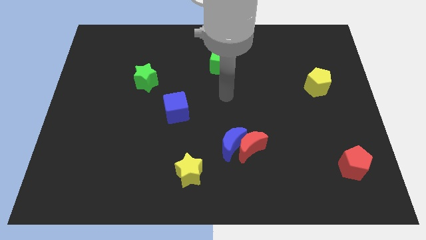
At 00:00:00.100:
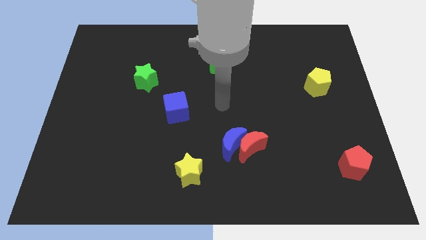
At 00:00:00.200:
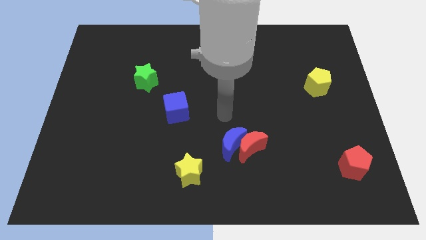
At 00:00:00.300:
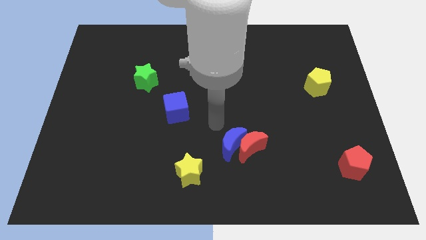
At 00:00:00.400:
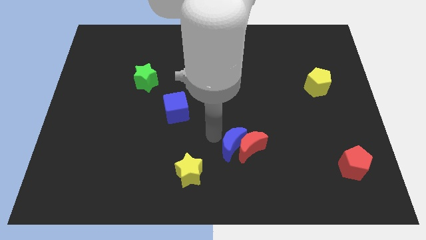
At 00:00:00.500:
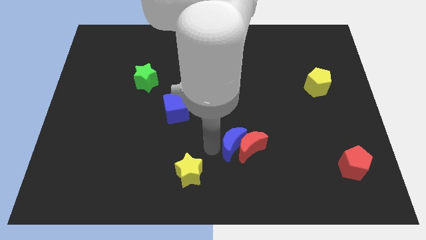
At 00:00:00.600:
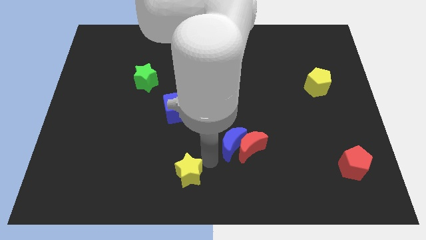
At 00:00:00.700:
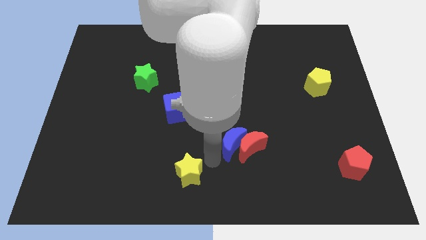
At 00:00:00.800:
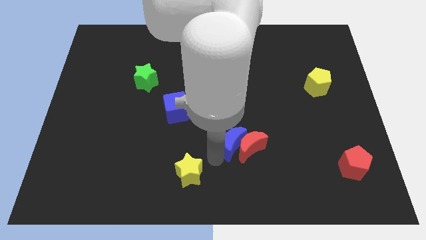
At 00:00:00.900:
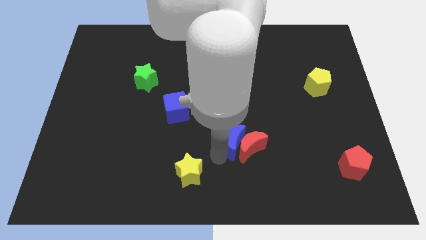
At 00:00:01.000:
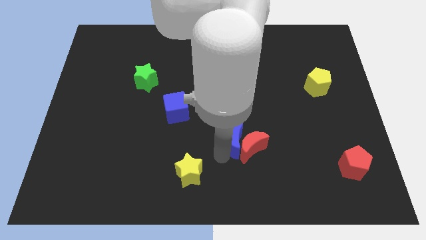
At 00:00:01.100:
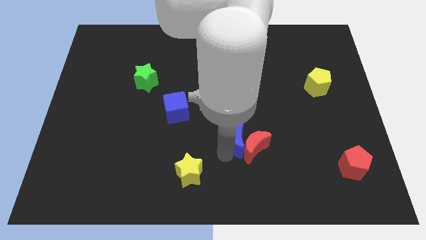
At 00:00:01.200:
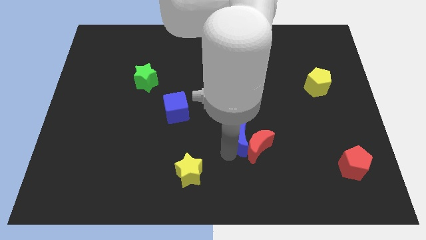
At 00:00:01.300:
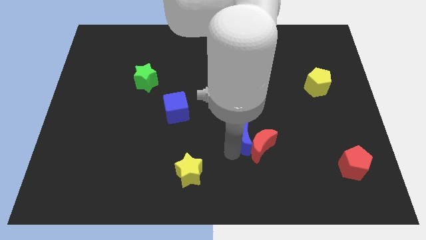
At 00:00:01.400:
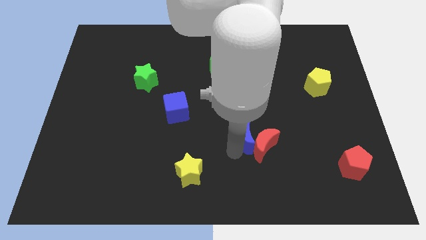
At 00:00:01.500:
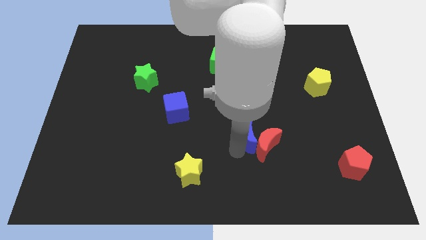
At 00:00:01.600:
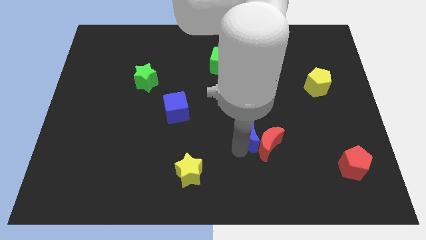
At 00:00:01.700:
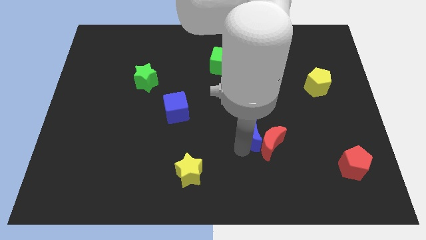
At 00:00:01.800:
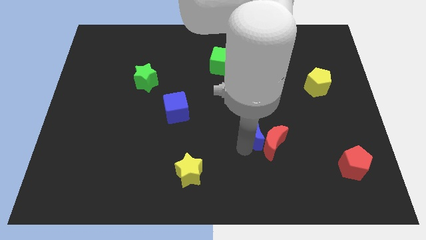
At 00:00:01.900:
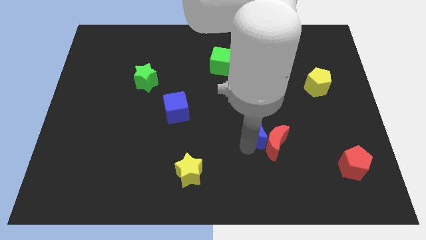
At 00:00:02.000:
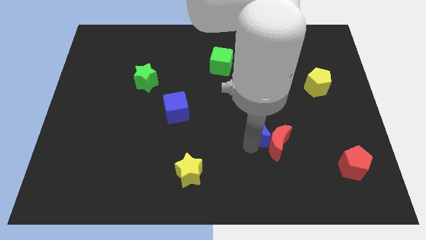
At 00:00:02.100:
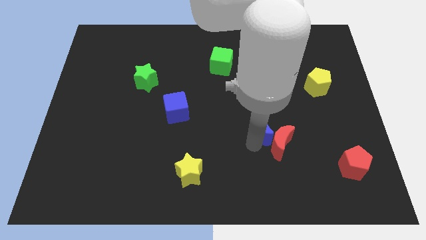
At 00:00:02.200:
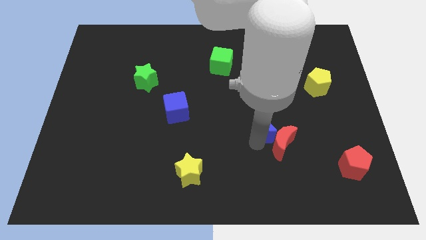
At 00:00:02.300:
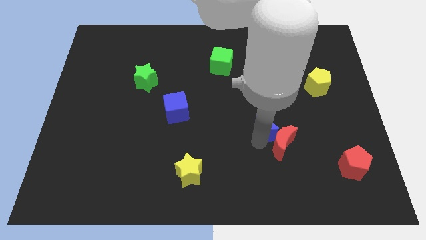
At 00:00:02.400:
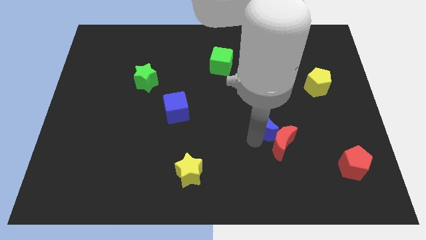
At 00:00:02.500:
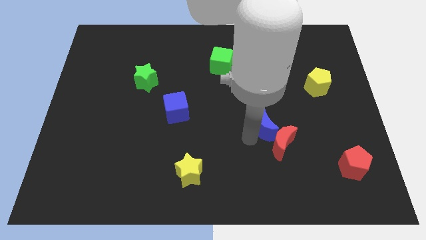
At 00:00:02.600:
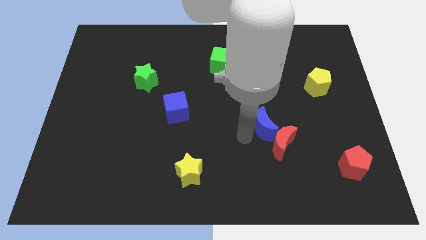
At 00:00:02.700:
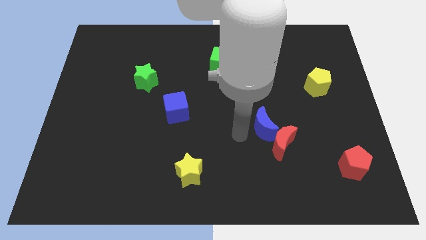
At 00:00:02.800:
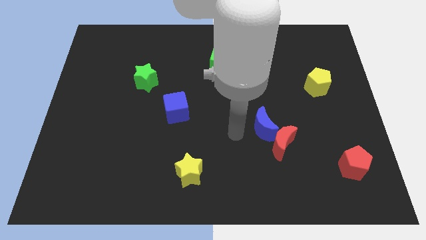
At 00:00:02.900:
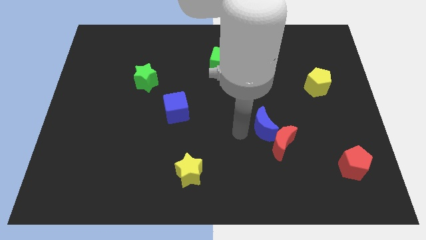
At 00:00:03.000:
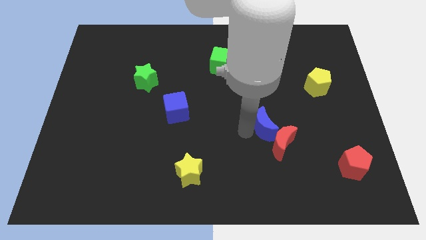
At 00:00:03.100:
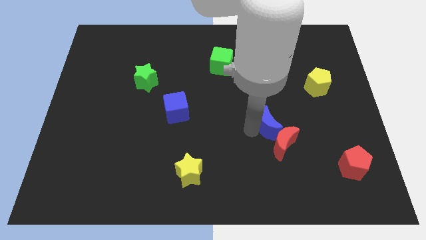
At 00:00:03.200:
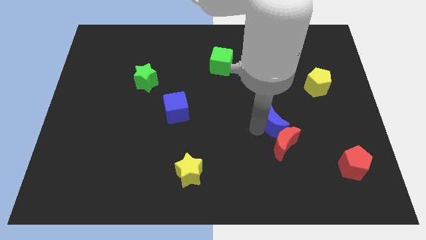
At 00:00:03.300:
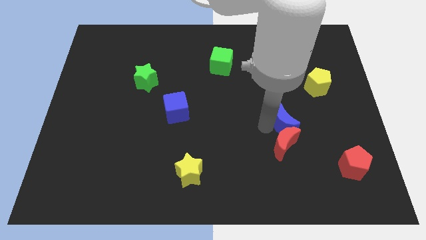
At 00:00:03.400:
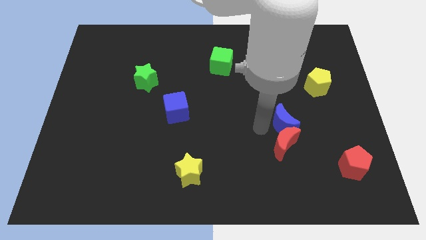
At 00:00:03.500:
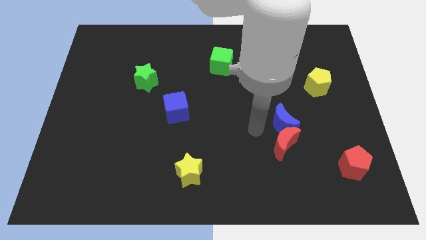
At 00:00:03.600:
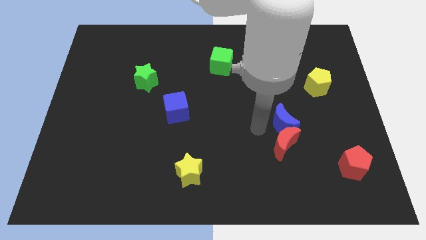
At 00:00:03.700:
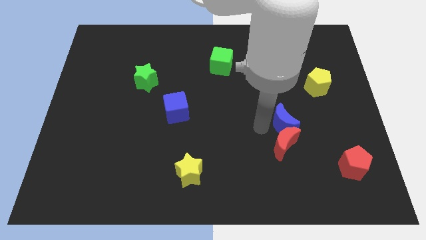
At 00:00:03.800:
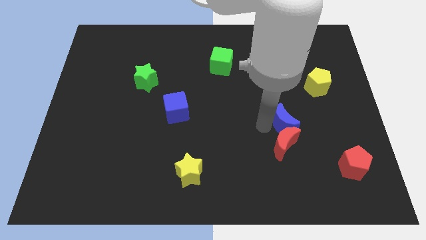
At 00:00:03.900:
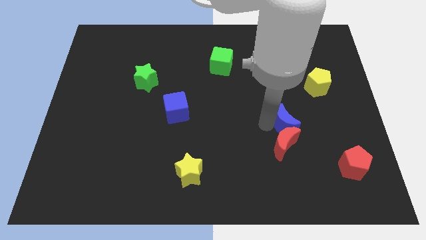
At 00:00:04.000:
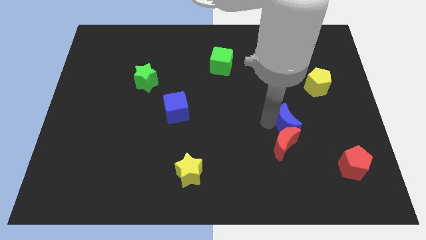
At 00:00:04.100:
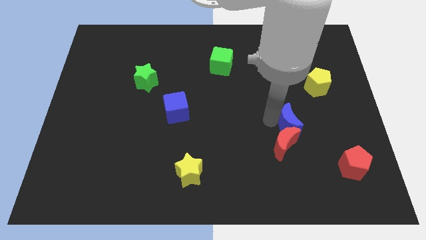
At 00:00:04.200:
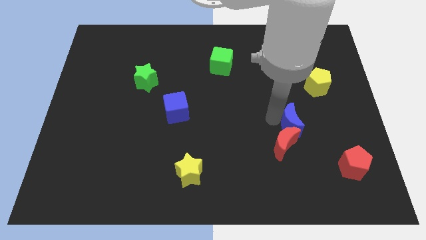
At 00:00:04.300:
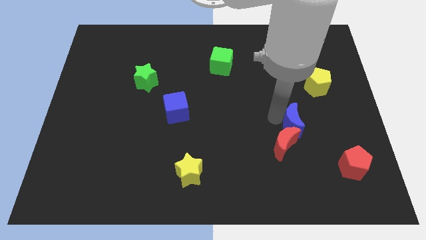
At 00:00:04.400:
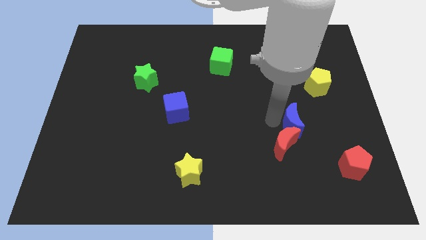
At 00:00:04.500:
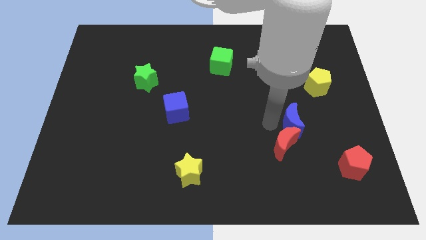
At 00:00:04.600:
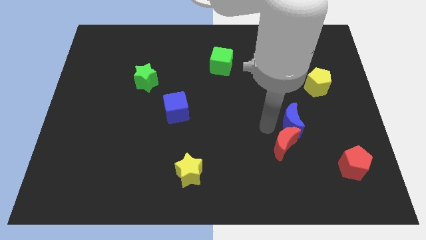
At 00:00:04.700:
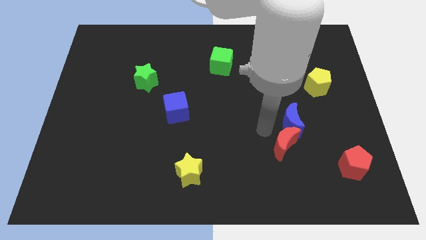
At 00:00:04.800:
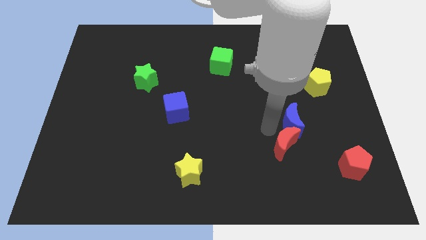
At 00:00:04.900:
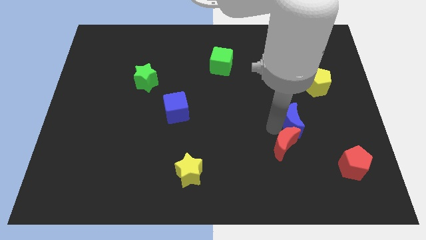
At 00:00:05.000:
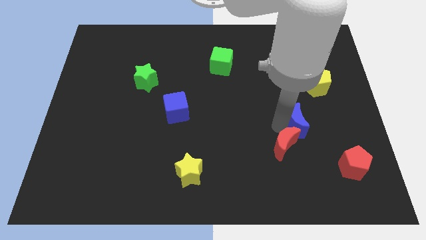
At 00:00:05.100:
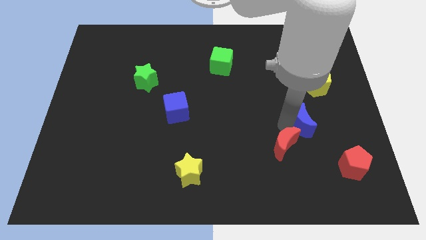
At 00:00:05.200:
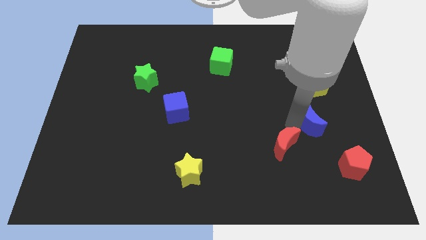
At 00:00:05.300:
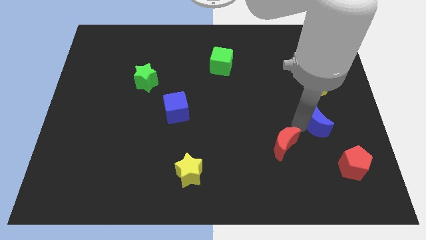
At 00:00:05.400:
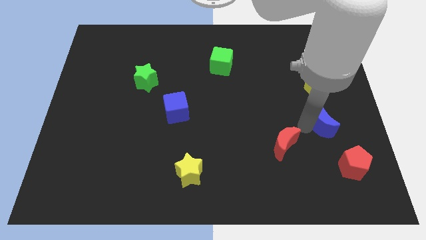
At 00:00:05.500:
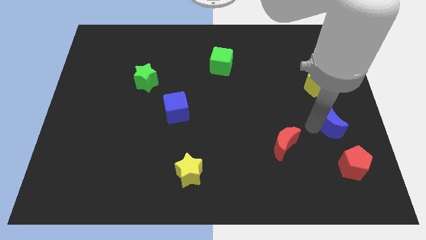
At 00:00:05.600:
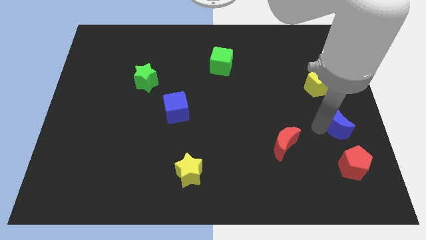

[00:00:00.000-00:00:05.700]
push the blue moon to the right side of the board

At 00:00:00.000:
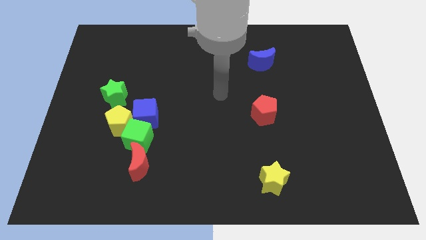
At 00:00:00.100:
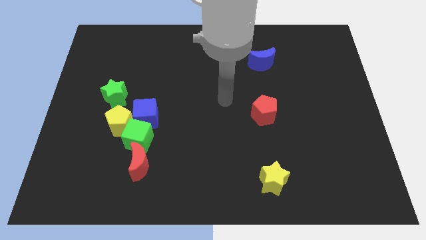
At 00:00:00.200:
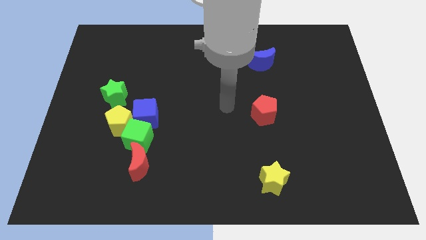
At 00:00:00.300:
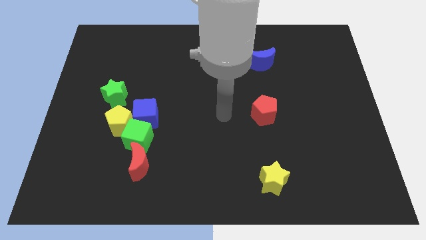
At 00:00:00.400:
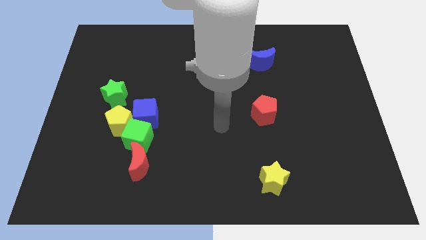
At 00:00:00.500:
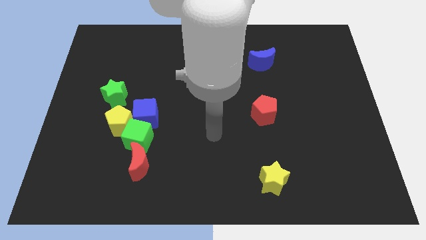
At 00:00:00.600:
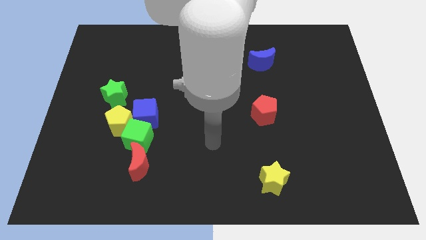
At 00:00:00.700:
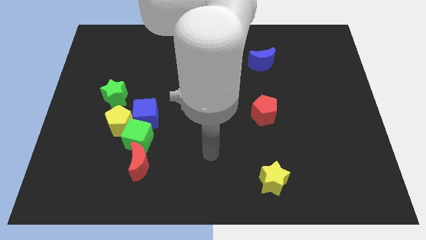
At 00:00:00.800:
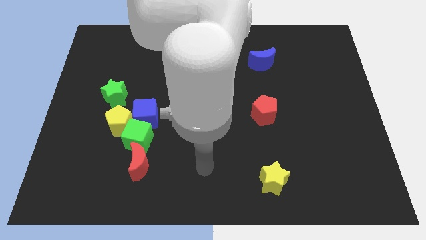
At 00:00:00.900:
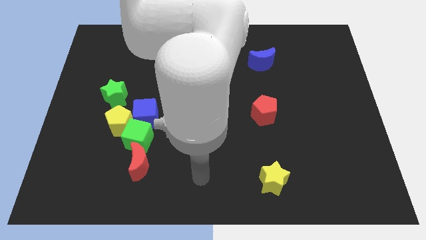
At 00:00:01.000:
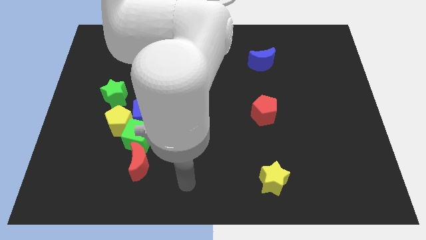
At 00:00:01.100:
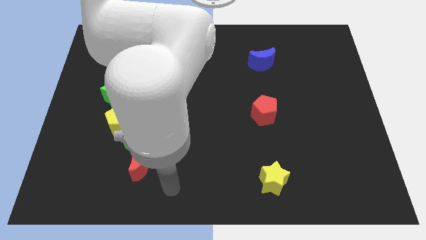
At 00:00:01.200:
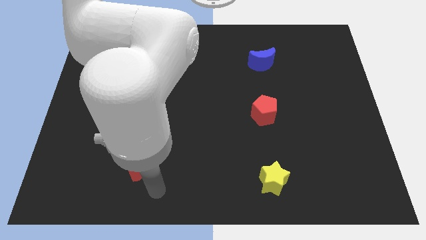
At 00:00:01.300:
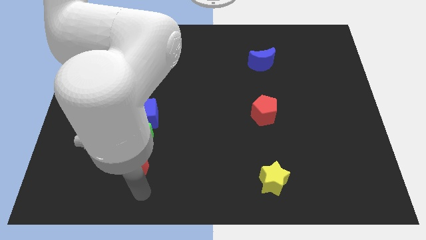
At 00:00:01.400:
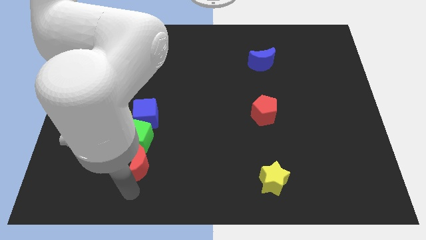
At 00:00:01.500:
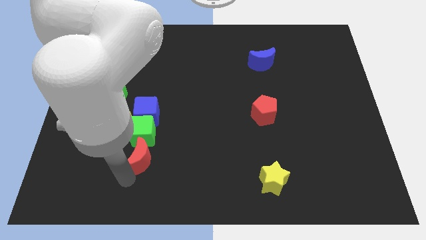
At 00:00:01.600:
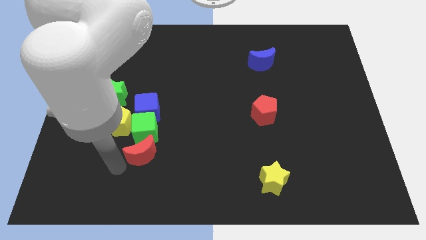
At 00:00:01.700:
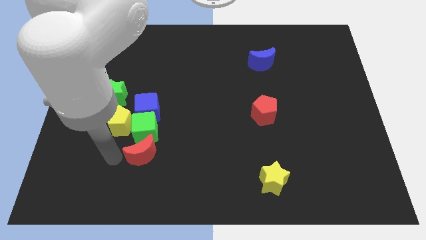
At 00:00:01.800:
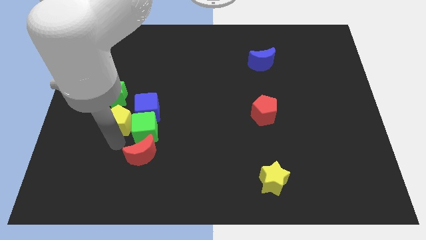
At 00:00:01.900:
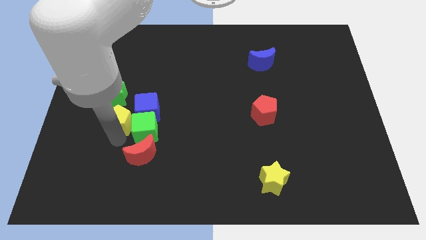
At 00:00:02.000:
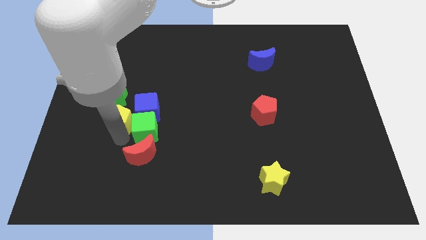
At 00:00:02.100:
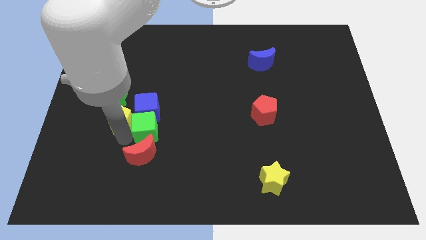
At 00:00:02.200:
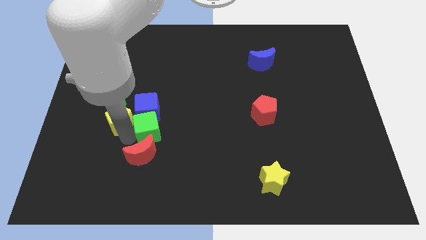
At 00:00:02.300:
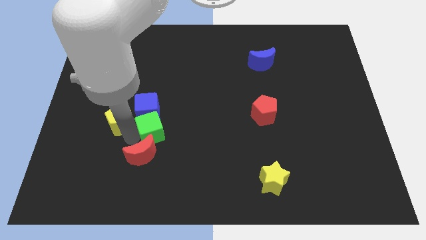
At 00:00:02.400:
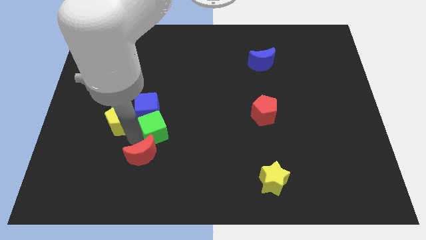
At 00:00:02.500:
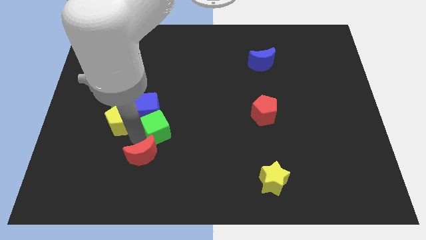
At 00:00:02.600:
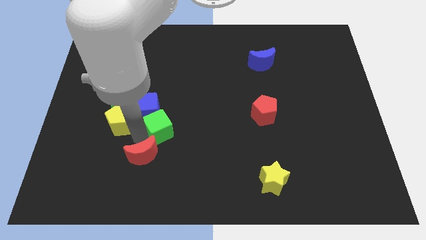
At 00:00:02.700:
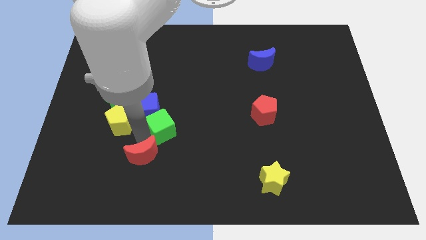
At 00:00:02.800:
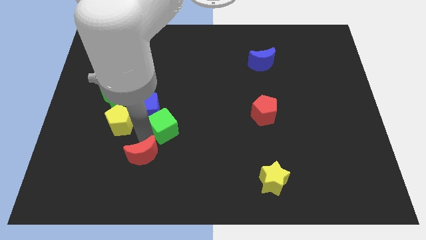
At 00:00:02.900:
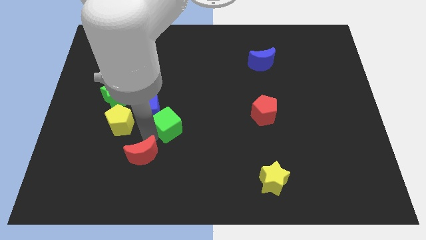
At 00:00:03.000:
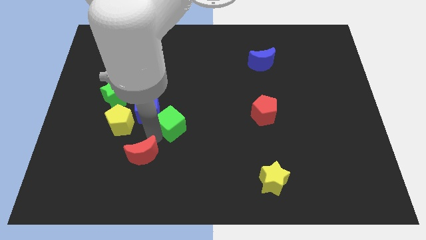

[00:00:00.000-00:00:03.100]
move the green cube to the center
